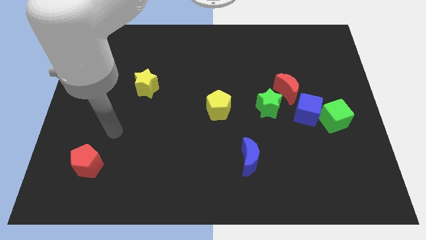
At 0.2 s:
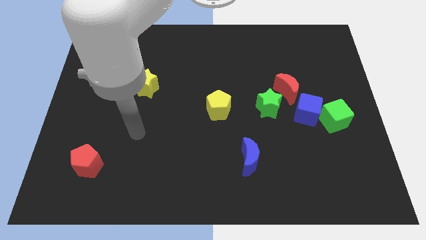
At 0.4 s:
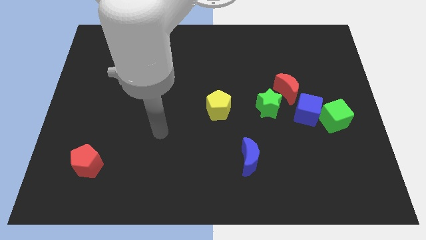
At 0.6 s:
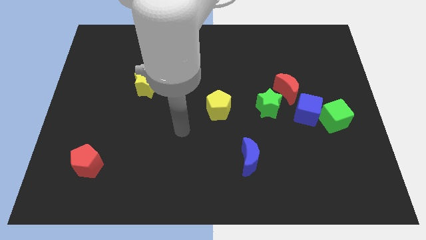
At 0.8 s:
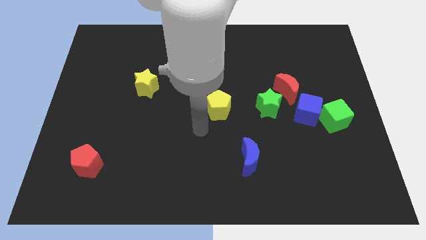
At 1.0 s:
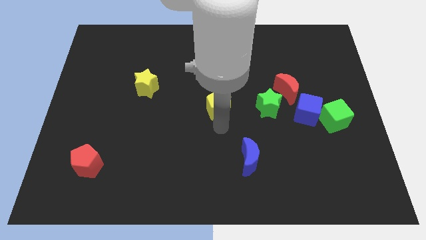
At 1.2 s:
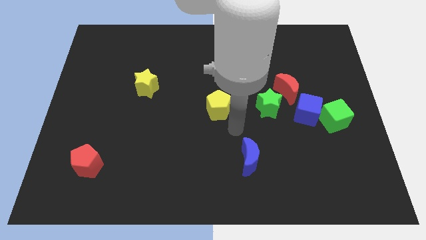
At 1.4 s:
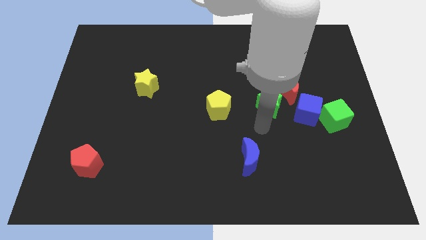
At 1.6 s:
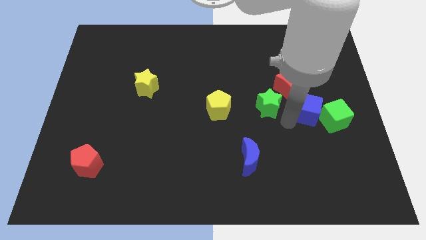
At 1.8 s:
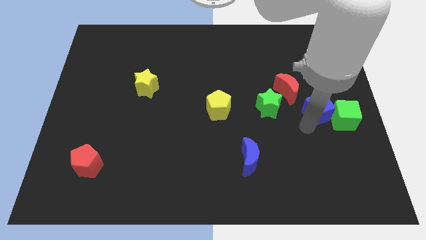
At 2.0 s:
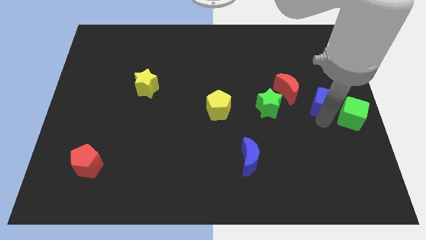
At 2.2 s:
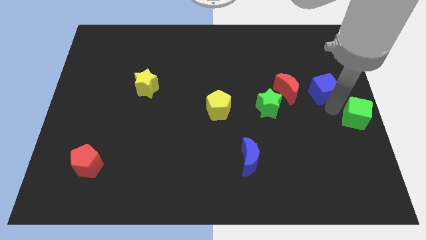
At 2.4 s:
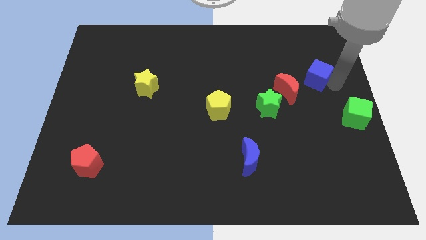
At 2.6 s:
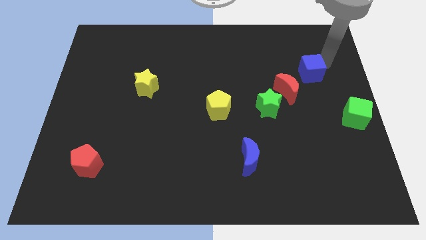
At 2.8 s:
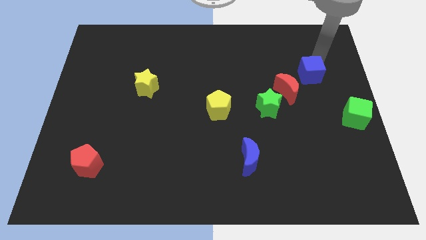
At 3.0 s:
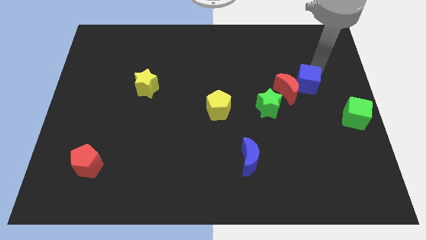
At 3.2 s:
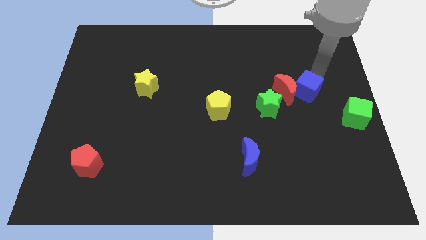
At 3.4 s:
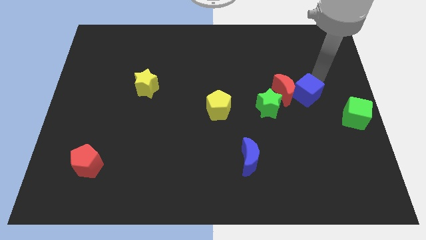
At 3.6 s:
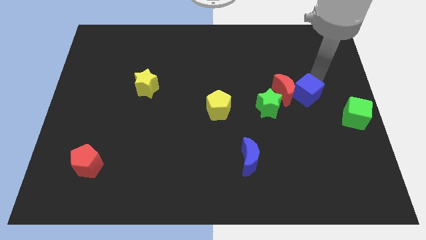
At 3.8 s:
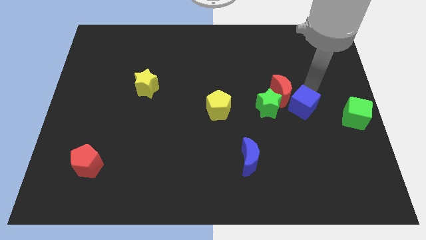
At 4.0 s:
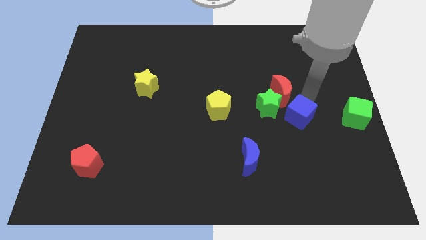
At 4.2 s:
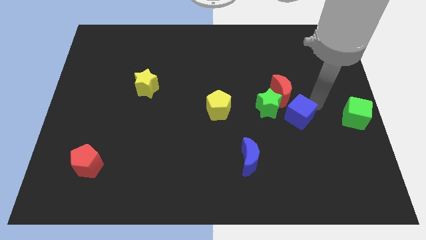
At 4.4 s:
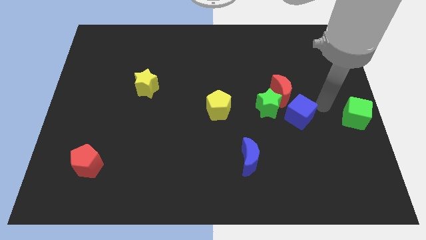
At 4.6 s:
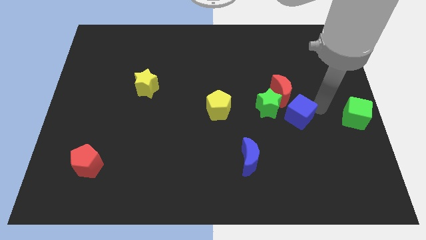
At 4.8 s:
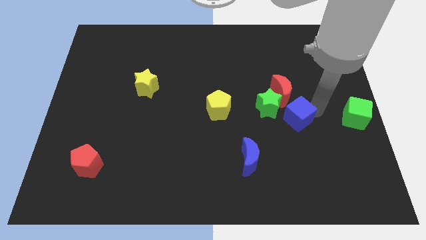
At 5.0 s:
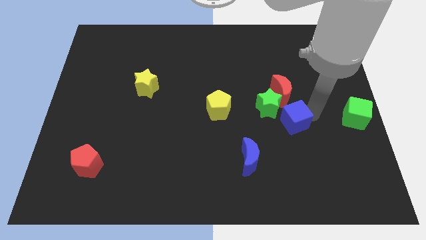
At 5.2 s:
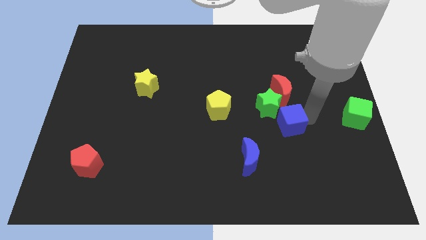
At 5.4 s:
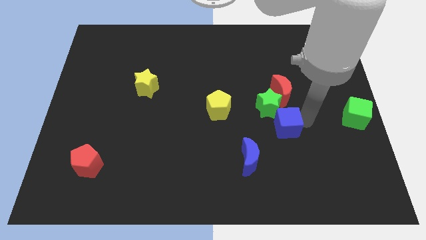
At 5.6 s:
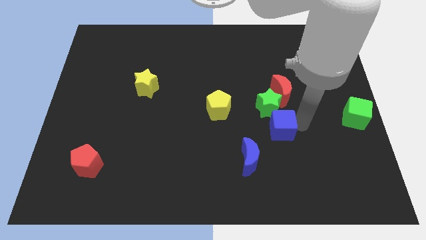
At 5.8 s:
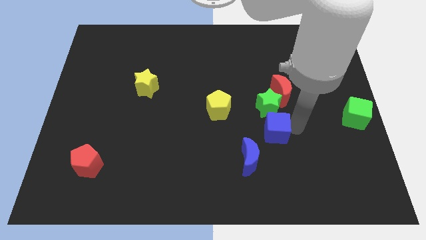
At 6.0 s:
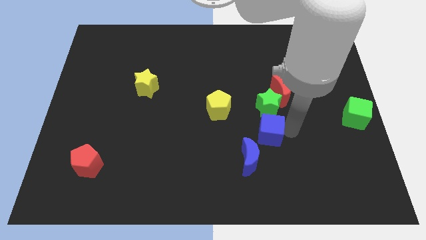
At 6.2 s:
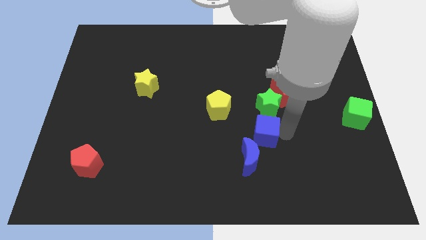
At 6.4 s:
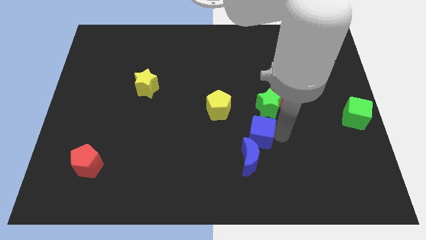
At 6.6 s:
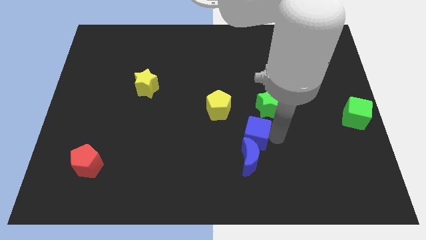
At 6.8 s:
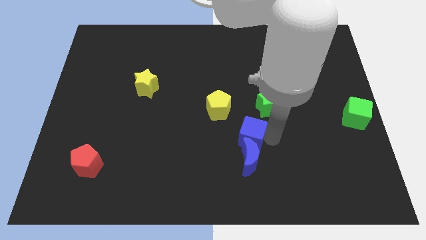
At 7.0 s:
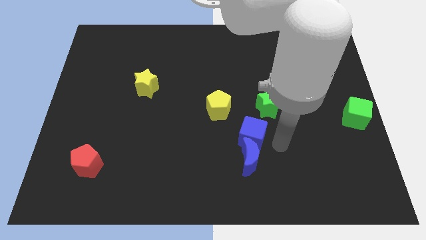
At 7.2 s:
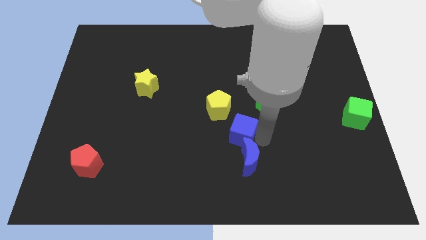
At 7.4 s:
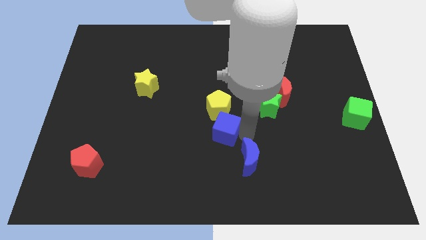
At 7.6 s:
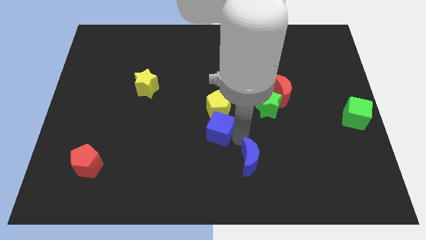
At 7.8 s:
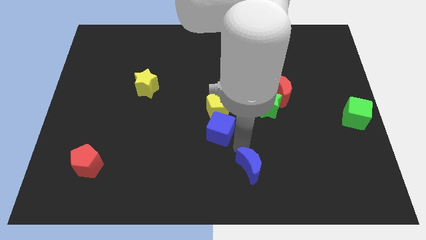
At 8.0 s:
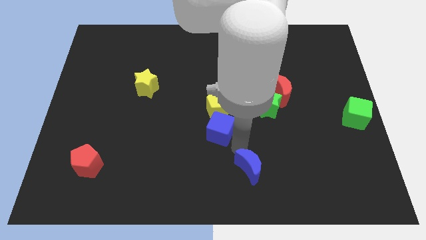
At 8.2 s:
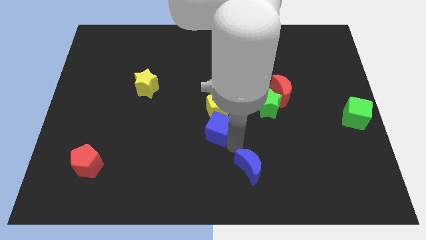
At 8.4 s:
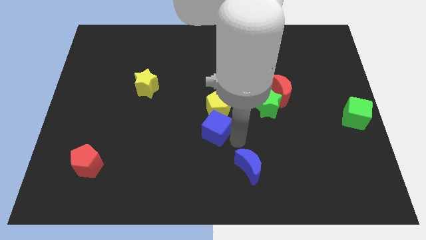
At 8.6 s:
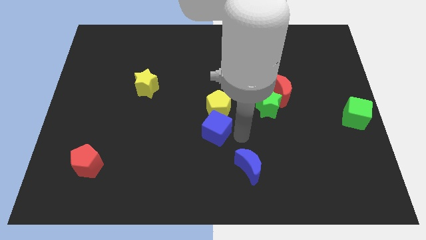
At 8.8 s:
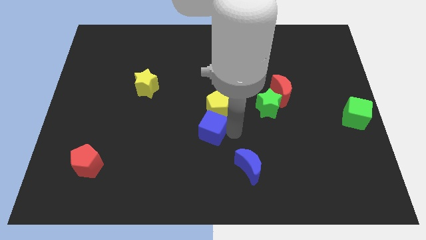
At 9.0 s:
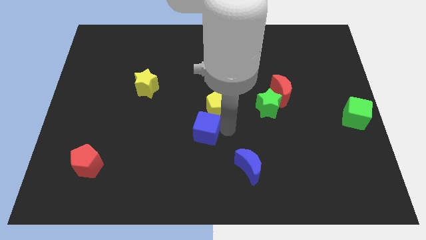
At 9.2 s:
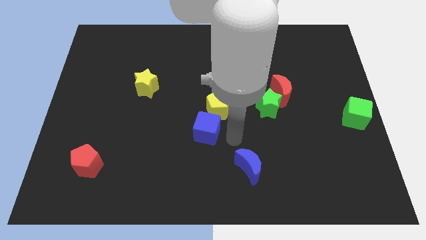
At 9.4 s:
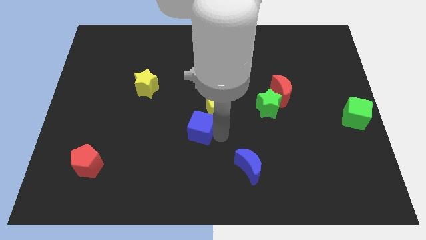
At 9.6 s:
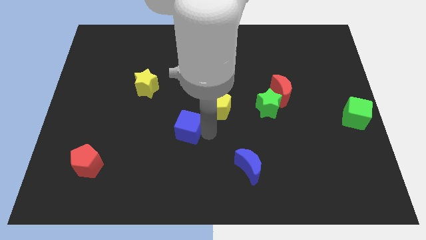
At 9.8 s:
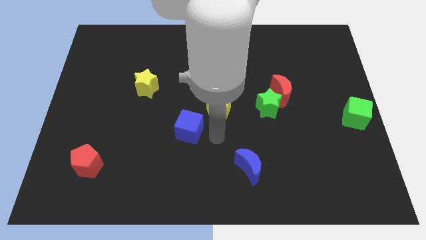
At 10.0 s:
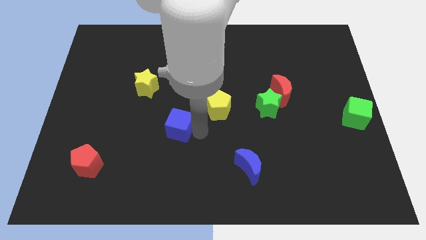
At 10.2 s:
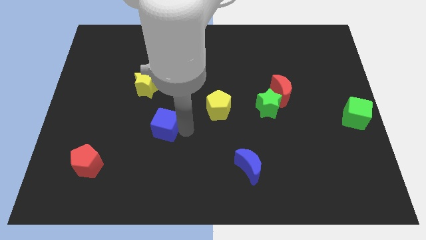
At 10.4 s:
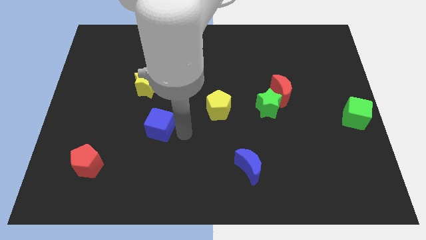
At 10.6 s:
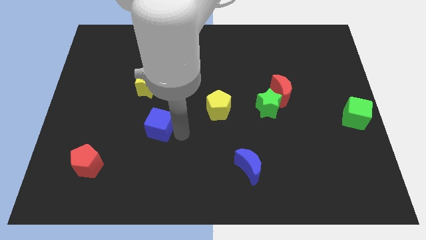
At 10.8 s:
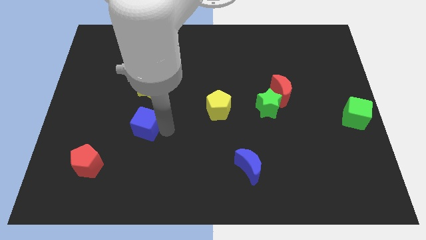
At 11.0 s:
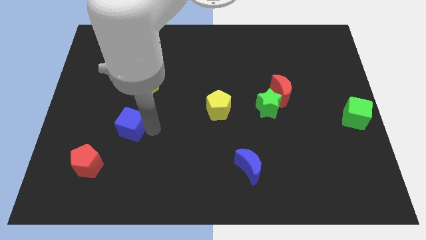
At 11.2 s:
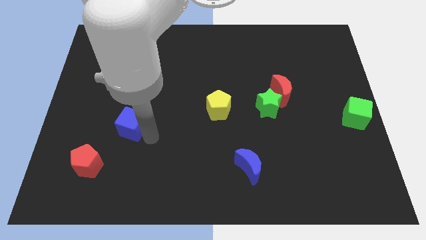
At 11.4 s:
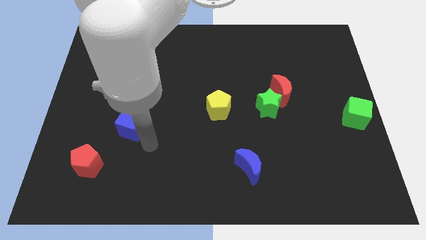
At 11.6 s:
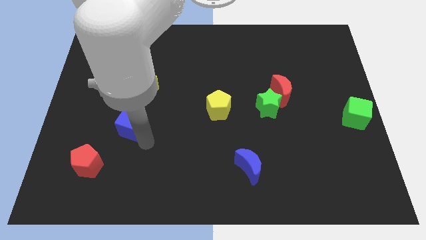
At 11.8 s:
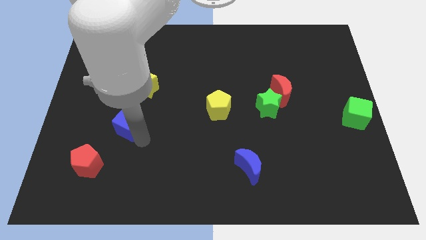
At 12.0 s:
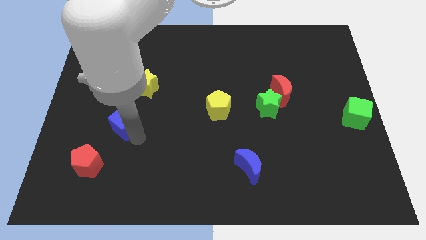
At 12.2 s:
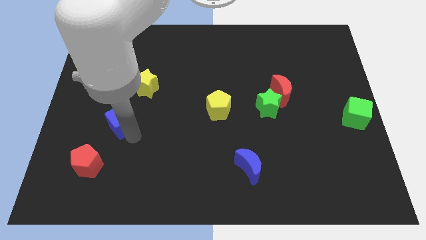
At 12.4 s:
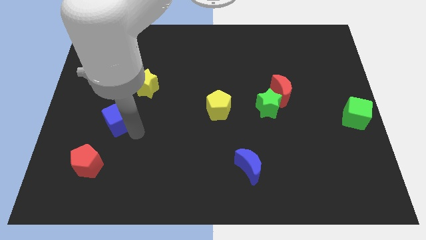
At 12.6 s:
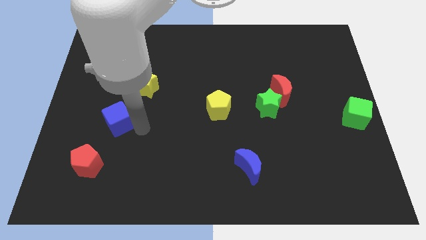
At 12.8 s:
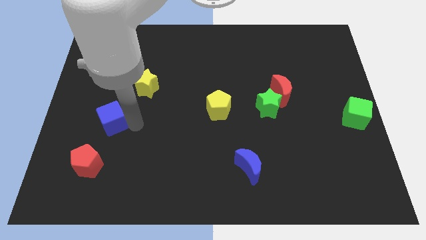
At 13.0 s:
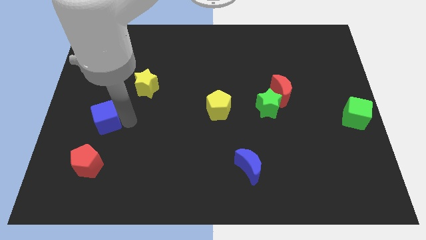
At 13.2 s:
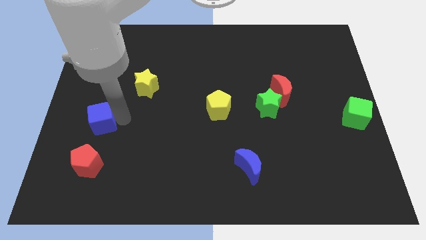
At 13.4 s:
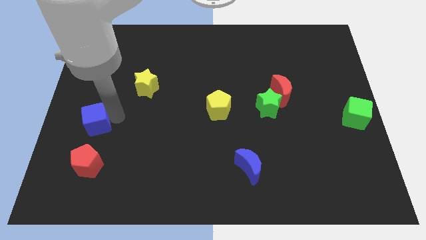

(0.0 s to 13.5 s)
slide the blue cube to the left side

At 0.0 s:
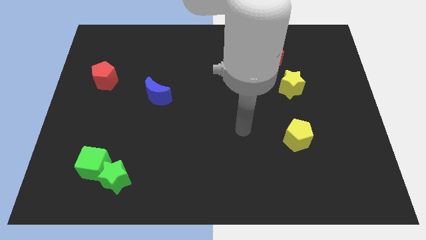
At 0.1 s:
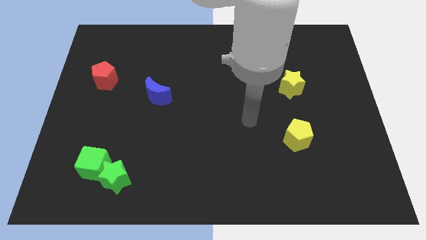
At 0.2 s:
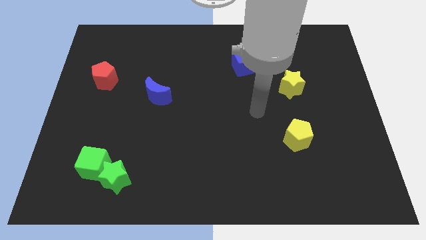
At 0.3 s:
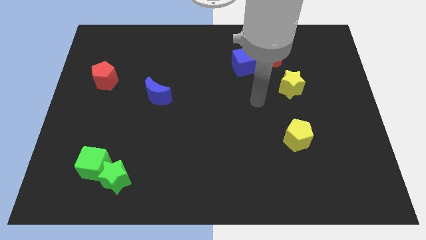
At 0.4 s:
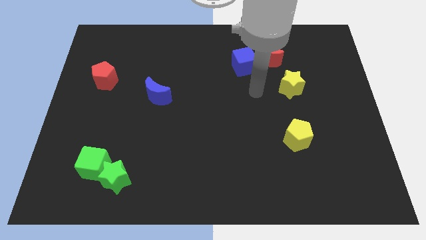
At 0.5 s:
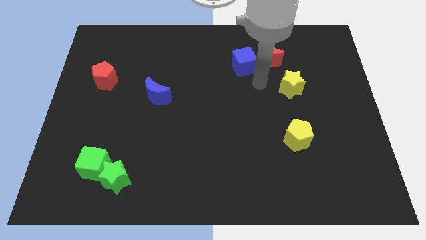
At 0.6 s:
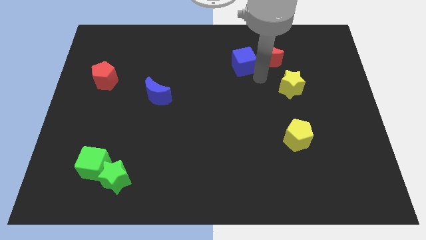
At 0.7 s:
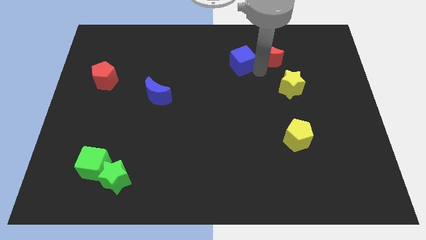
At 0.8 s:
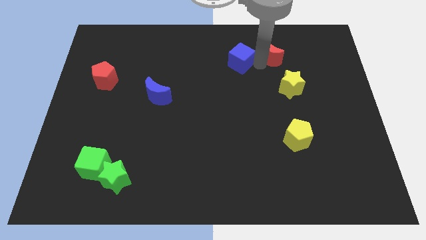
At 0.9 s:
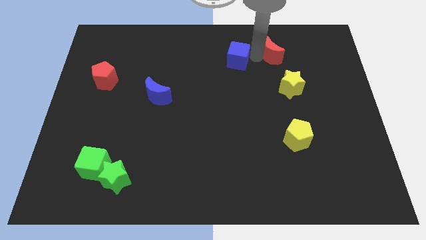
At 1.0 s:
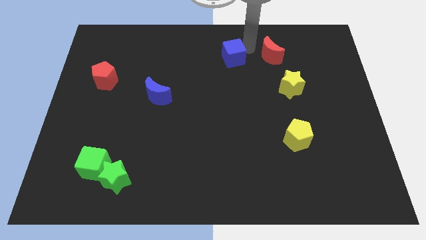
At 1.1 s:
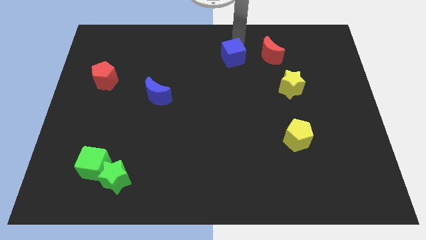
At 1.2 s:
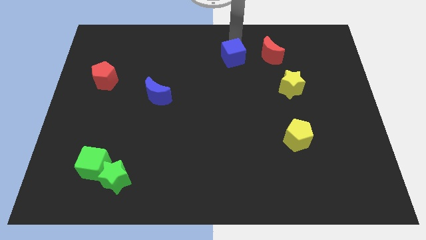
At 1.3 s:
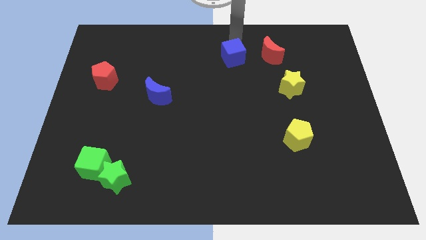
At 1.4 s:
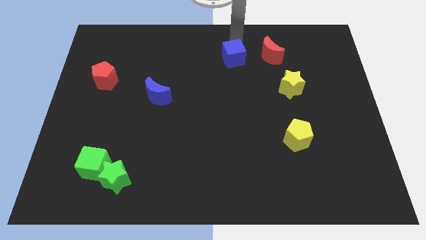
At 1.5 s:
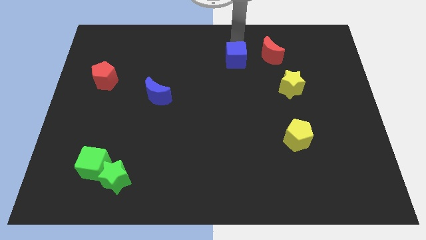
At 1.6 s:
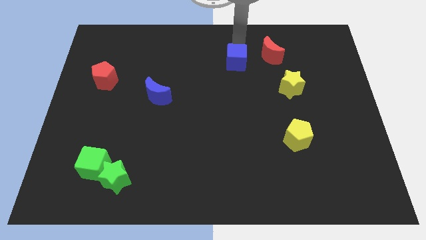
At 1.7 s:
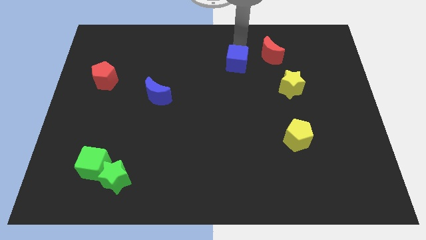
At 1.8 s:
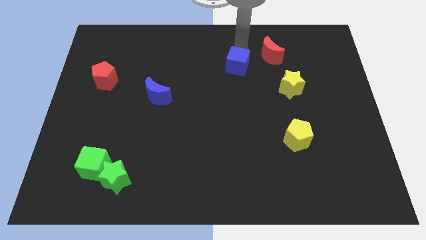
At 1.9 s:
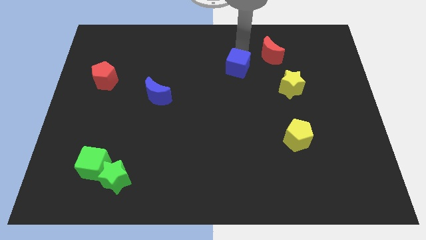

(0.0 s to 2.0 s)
move the blue cube to the center of the board
